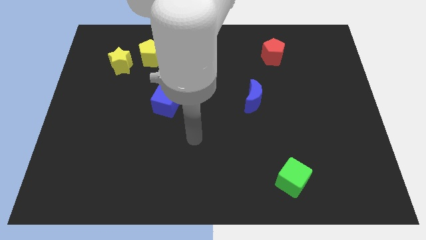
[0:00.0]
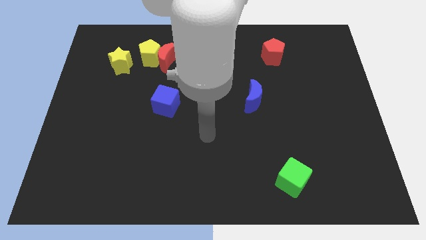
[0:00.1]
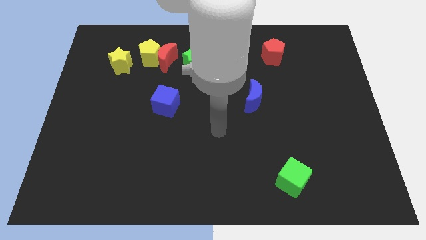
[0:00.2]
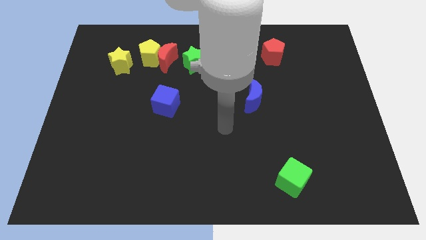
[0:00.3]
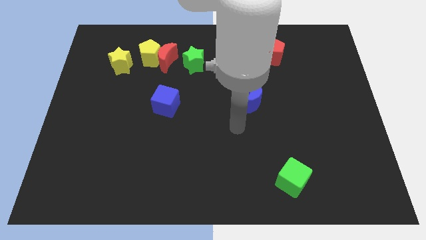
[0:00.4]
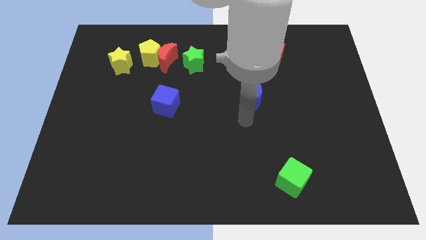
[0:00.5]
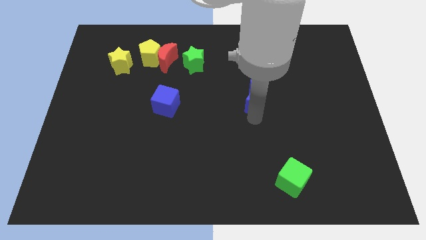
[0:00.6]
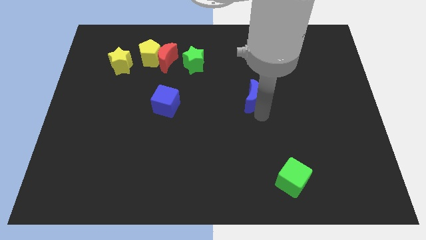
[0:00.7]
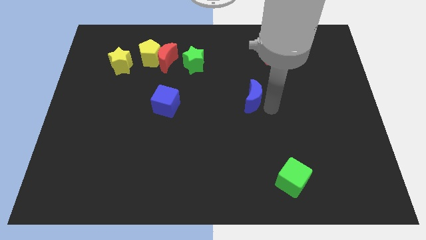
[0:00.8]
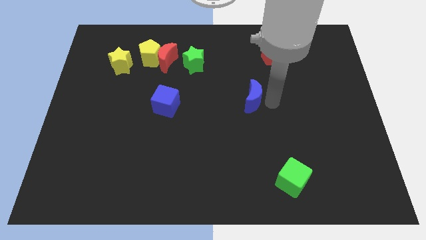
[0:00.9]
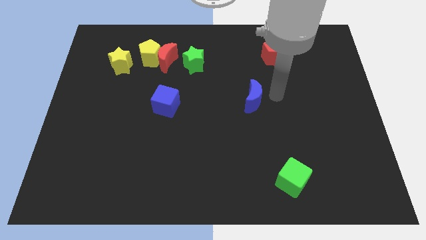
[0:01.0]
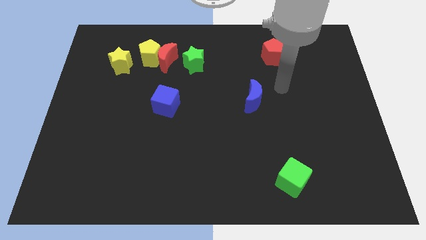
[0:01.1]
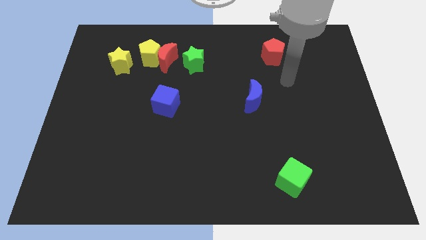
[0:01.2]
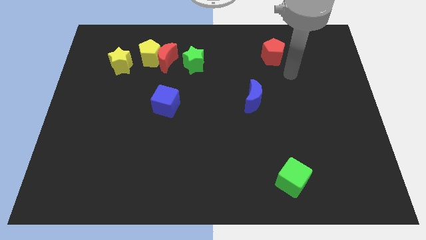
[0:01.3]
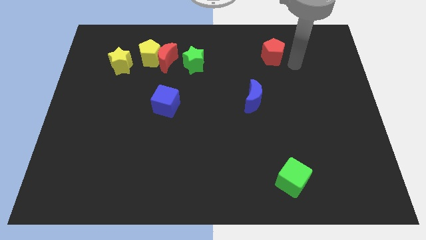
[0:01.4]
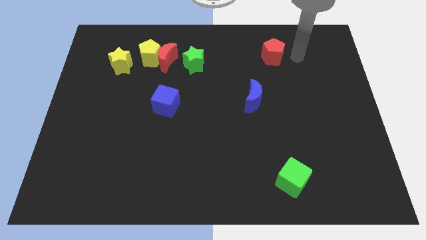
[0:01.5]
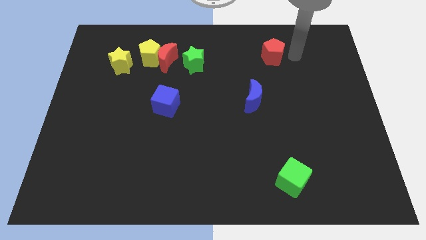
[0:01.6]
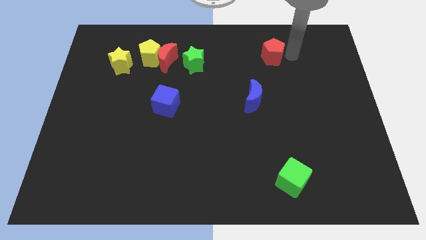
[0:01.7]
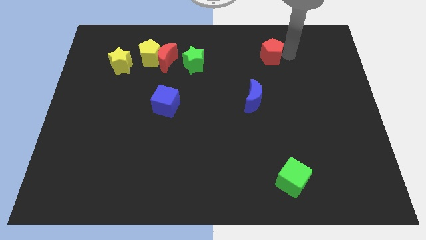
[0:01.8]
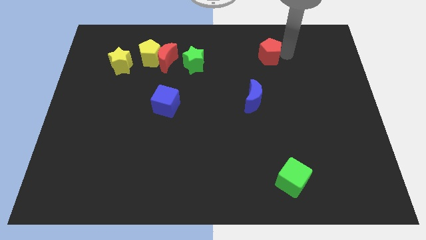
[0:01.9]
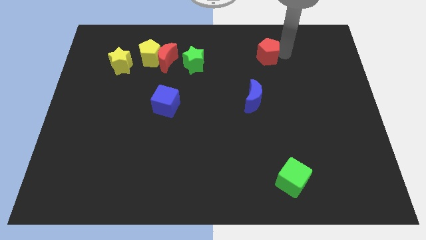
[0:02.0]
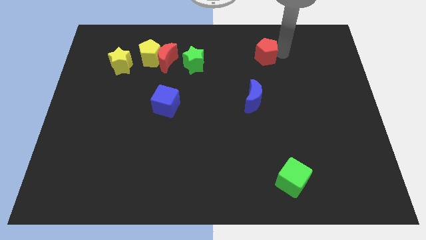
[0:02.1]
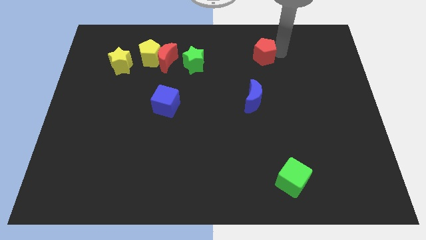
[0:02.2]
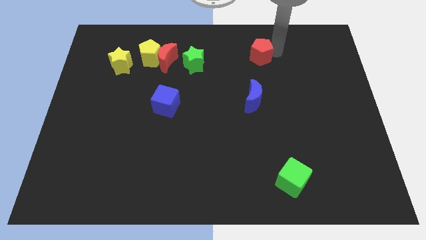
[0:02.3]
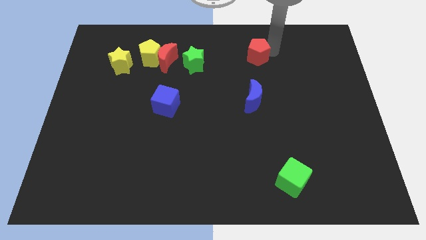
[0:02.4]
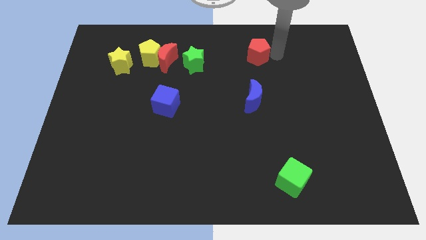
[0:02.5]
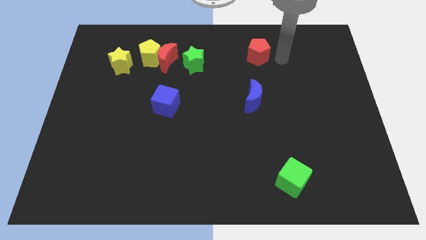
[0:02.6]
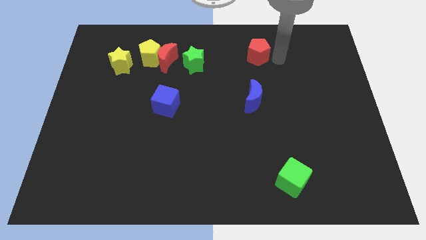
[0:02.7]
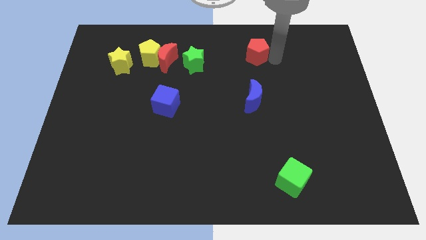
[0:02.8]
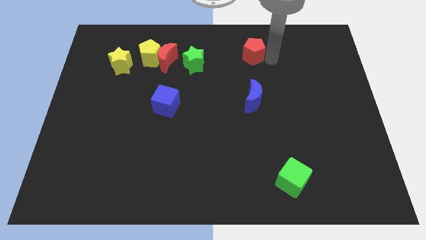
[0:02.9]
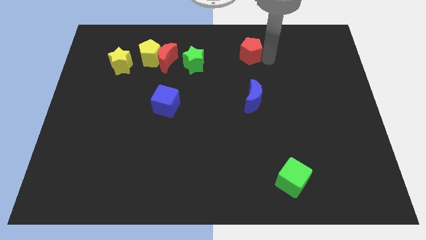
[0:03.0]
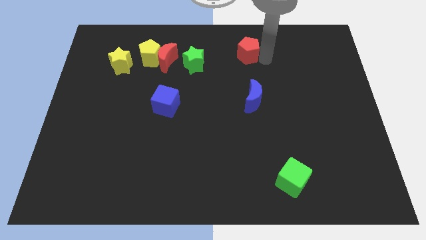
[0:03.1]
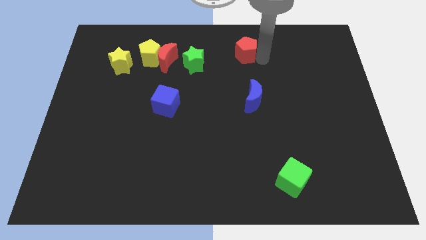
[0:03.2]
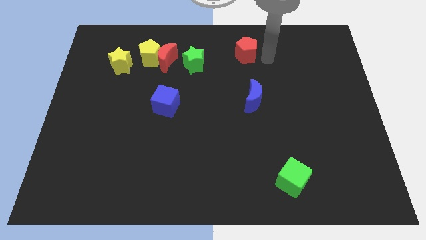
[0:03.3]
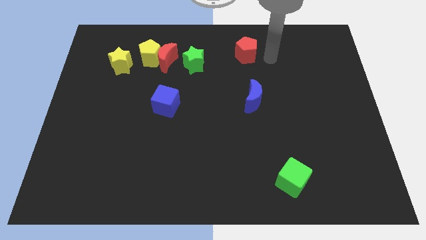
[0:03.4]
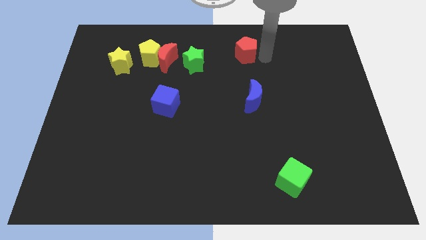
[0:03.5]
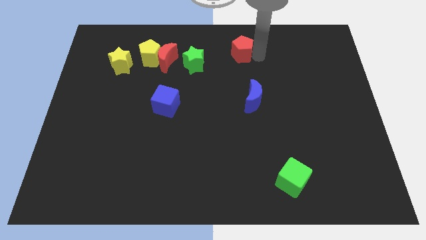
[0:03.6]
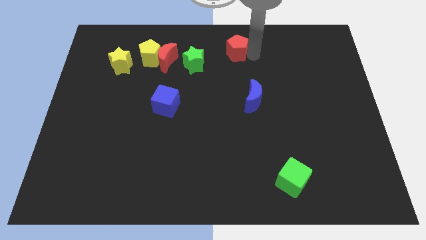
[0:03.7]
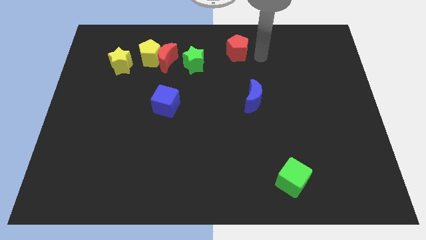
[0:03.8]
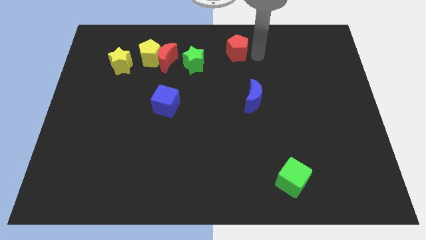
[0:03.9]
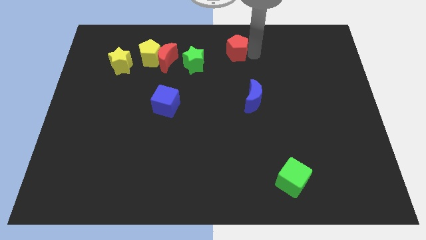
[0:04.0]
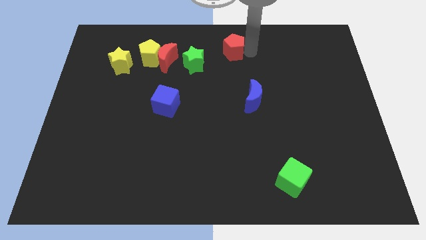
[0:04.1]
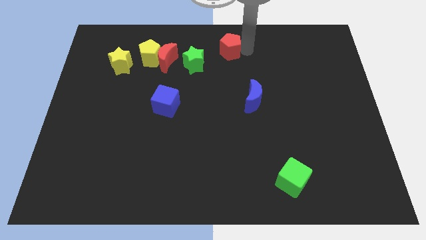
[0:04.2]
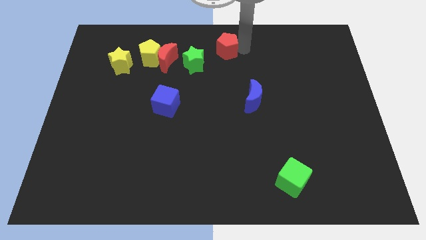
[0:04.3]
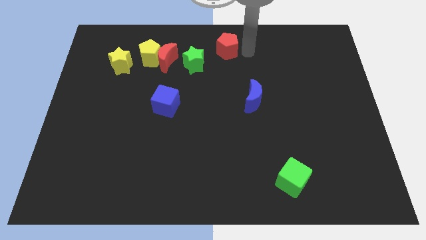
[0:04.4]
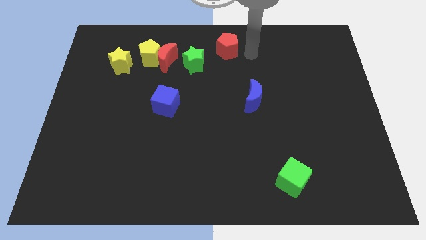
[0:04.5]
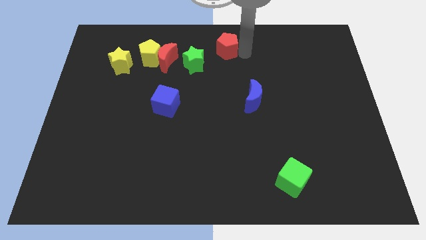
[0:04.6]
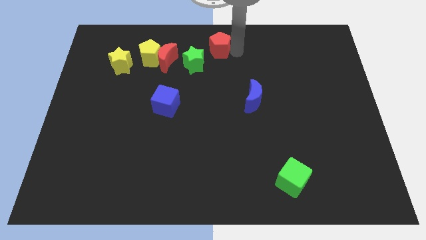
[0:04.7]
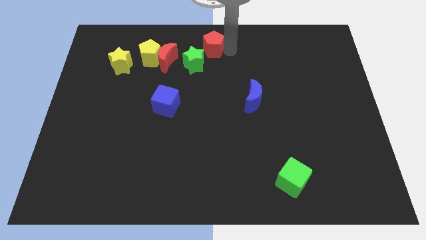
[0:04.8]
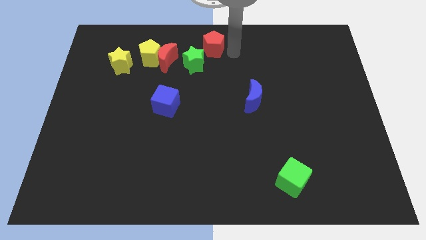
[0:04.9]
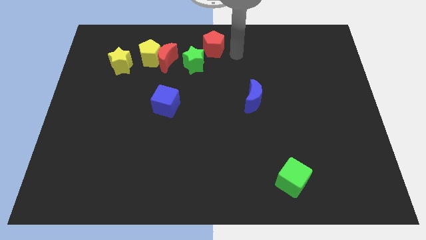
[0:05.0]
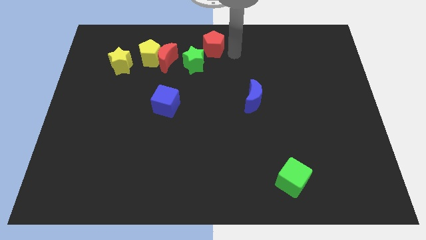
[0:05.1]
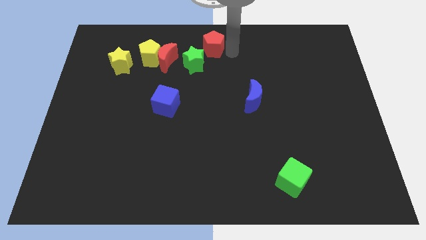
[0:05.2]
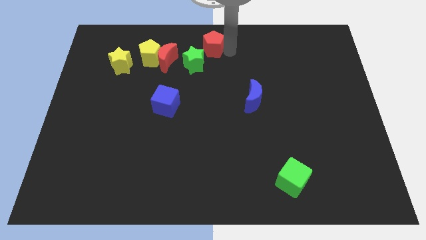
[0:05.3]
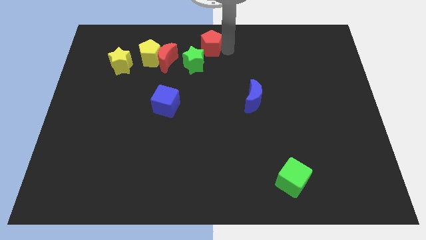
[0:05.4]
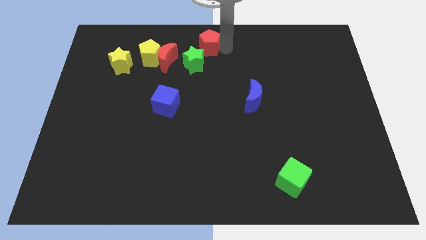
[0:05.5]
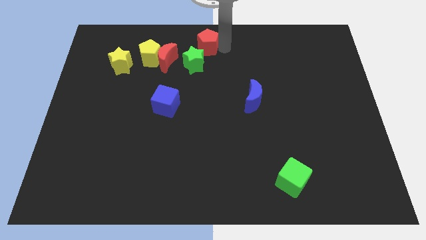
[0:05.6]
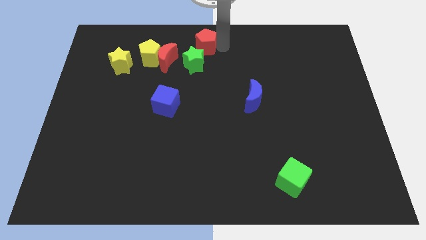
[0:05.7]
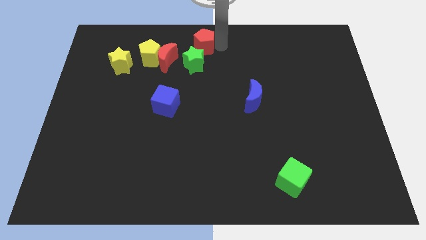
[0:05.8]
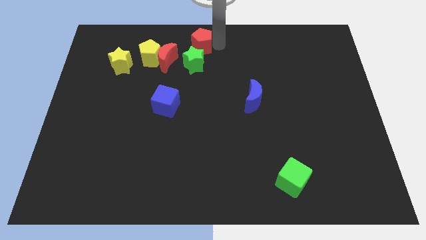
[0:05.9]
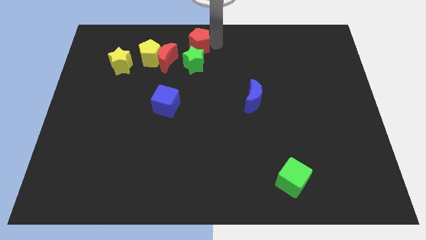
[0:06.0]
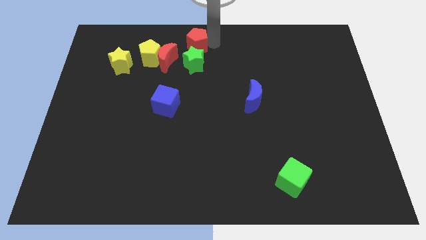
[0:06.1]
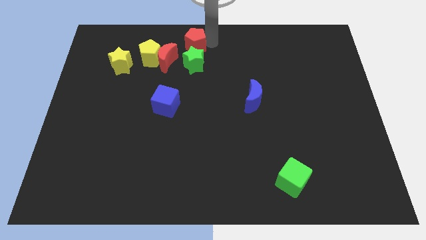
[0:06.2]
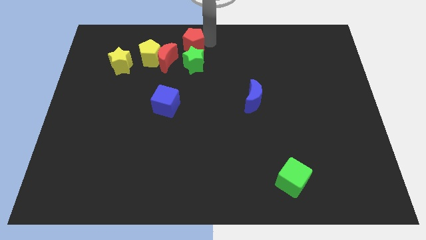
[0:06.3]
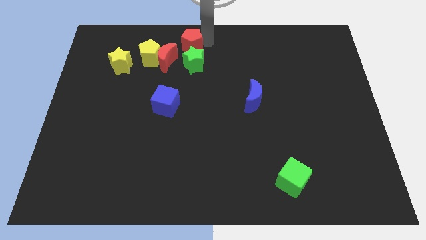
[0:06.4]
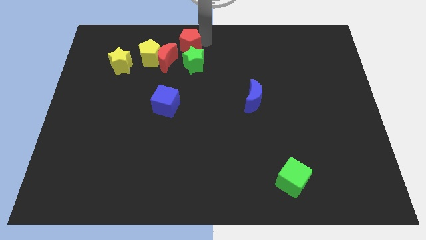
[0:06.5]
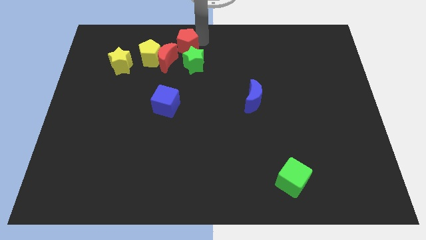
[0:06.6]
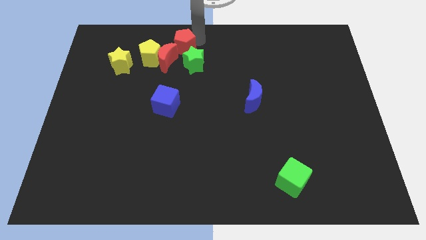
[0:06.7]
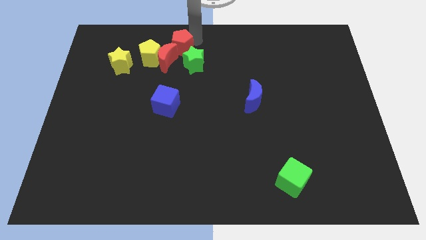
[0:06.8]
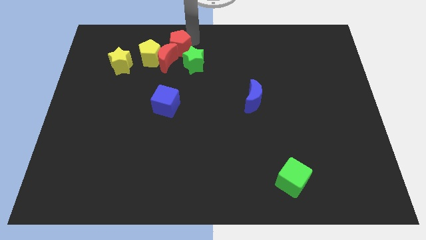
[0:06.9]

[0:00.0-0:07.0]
put the red pentagon close to the red moon

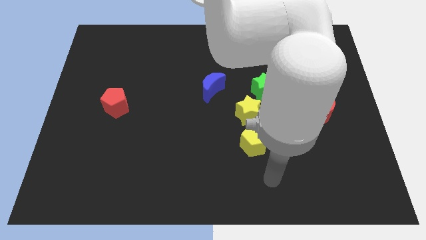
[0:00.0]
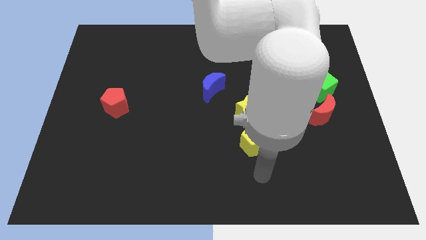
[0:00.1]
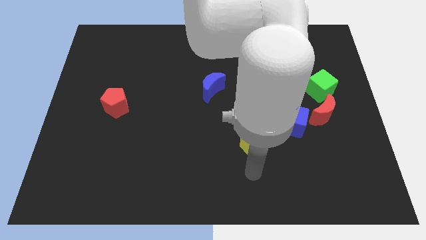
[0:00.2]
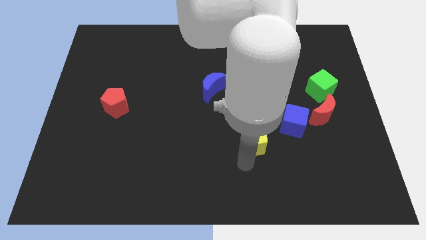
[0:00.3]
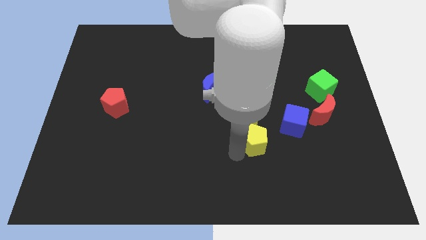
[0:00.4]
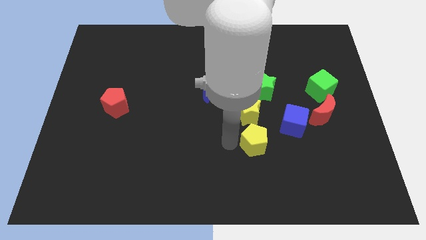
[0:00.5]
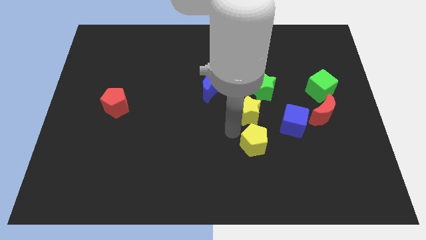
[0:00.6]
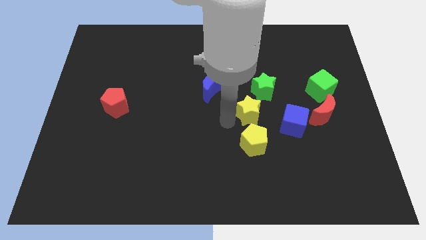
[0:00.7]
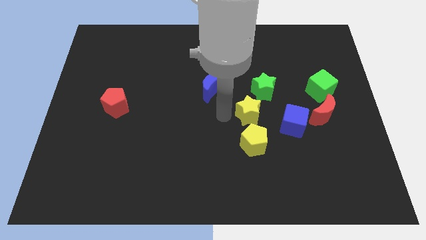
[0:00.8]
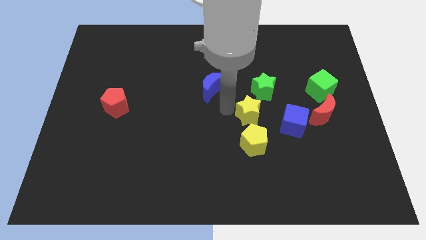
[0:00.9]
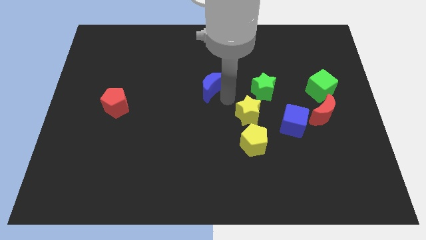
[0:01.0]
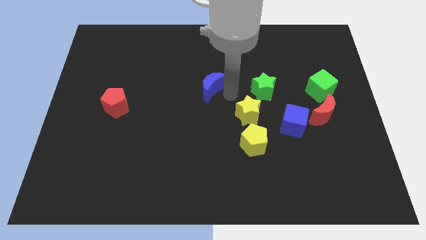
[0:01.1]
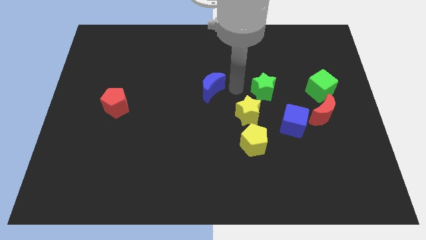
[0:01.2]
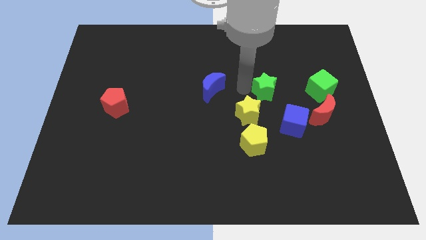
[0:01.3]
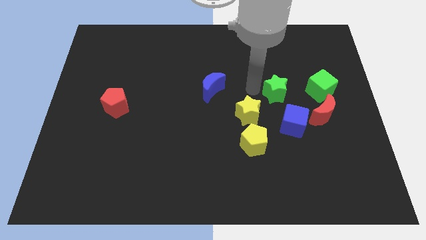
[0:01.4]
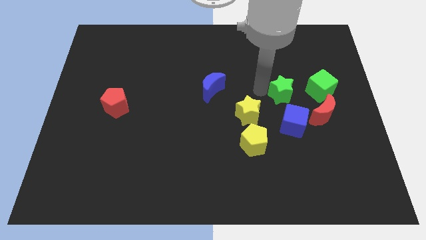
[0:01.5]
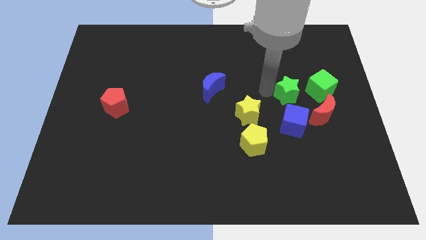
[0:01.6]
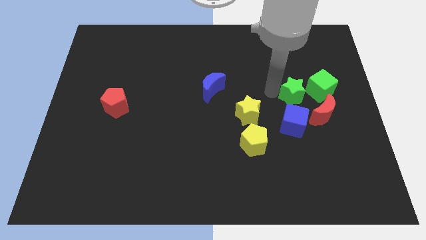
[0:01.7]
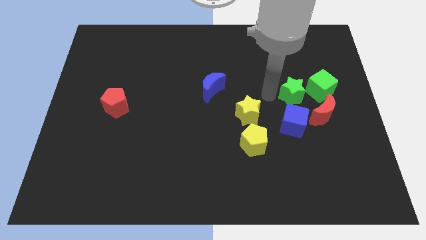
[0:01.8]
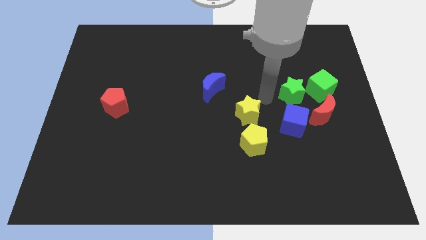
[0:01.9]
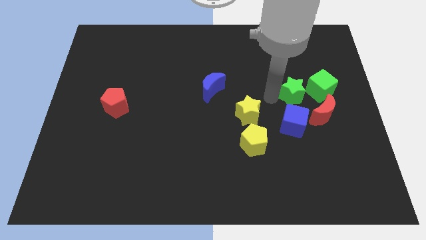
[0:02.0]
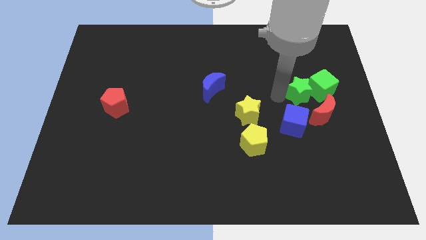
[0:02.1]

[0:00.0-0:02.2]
slide the green star towards the green cube
